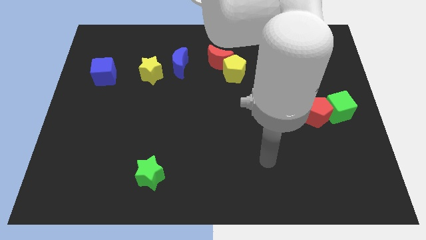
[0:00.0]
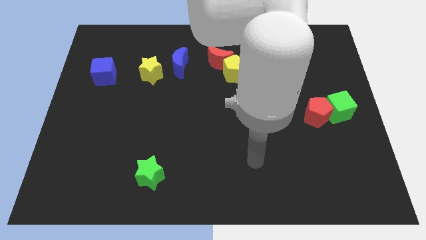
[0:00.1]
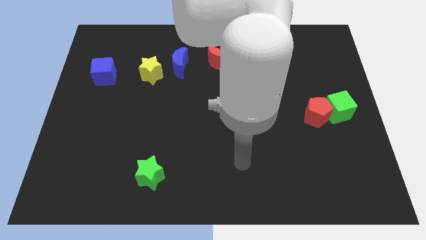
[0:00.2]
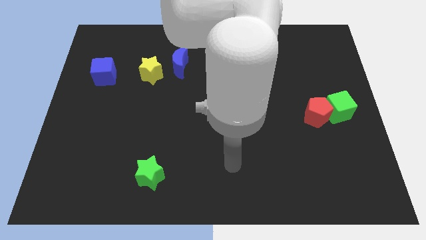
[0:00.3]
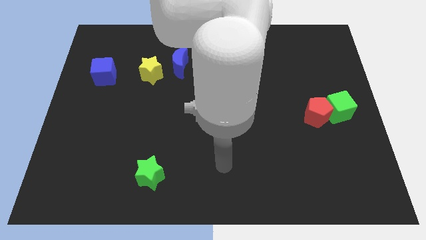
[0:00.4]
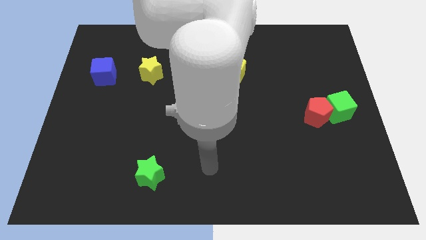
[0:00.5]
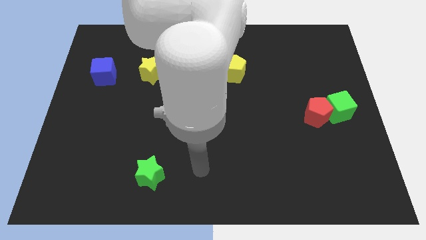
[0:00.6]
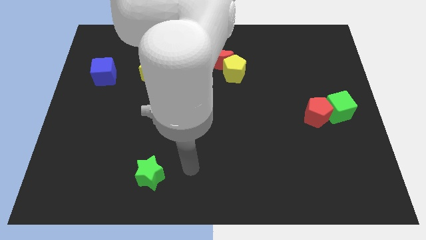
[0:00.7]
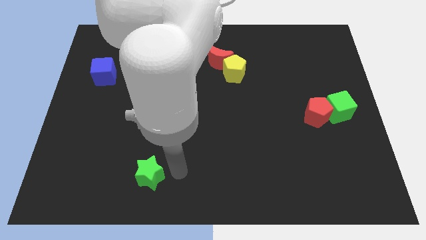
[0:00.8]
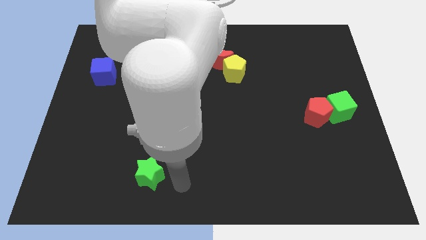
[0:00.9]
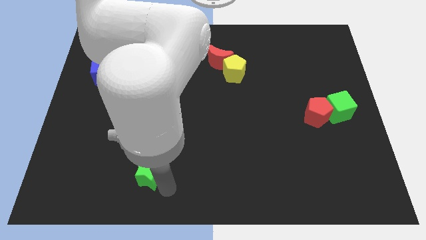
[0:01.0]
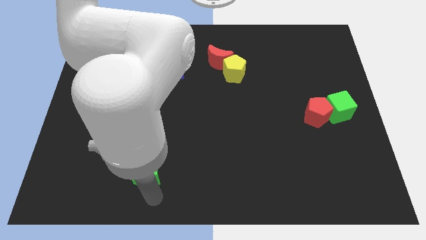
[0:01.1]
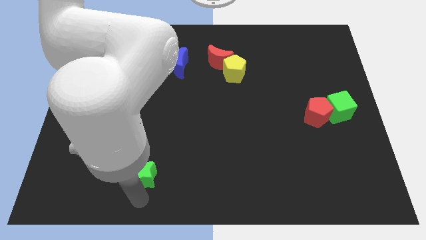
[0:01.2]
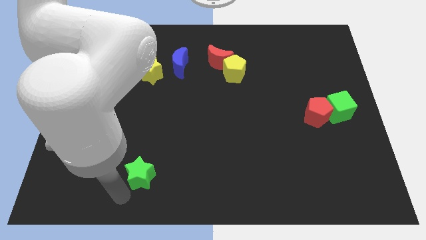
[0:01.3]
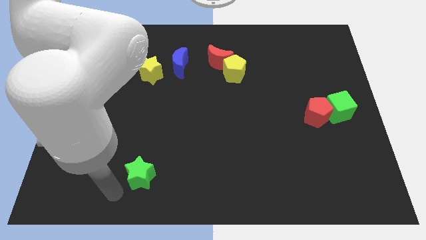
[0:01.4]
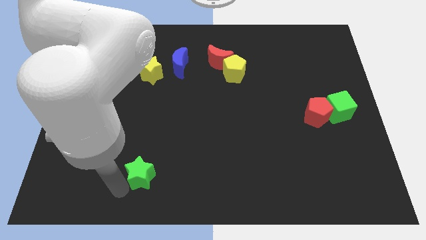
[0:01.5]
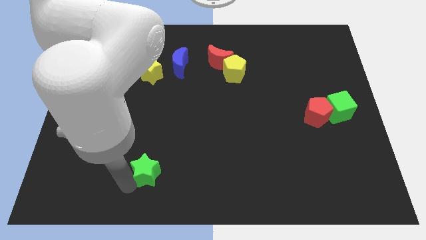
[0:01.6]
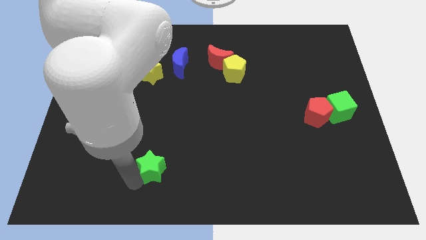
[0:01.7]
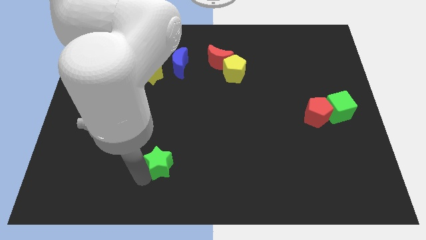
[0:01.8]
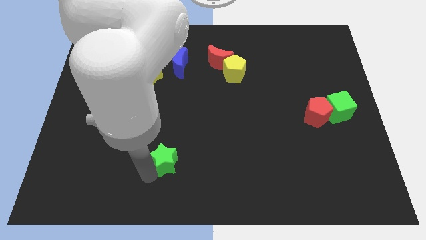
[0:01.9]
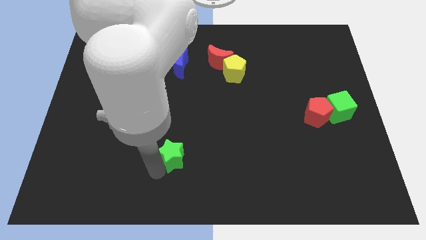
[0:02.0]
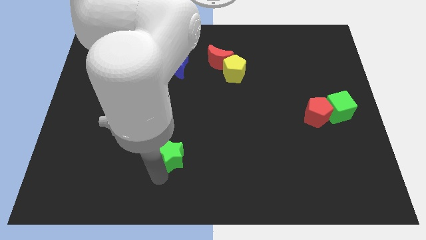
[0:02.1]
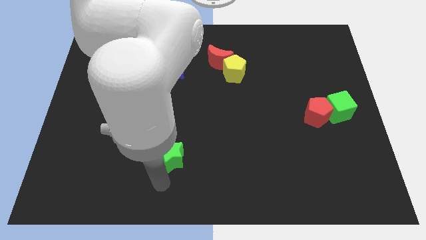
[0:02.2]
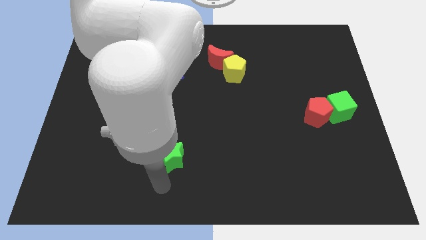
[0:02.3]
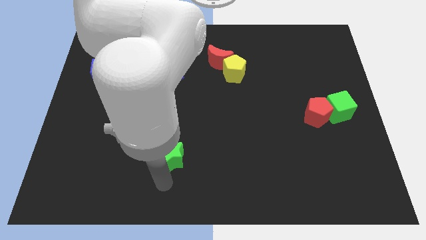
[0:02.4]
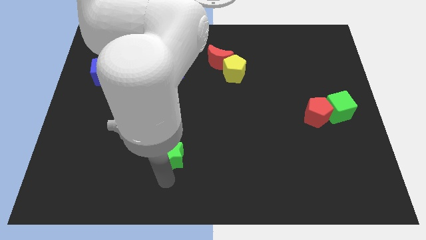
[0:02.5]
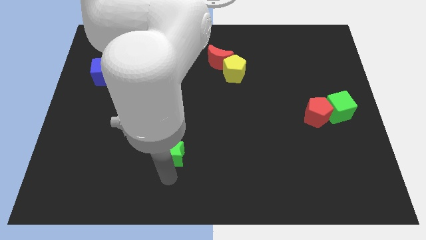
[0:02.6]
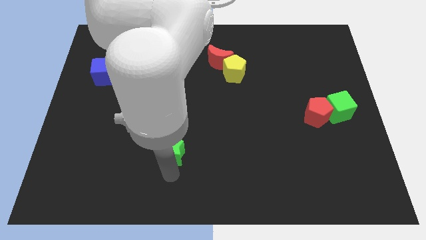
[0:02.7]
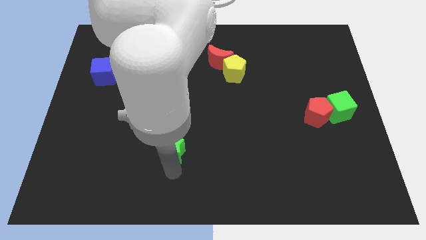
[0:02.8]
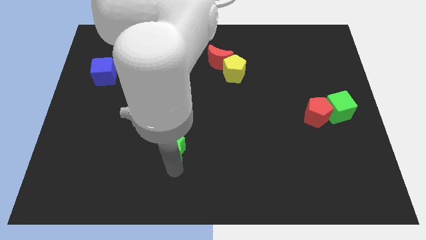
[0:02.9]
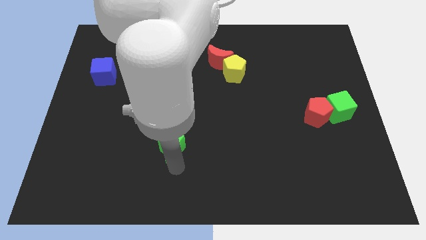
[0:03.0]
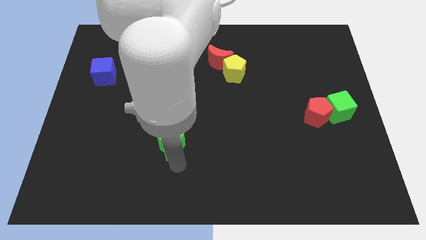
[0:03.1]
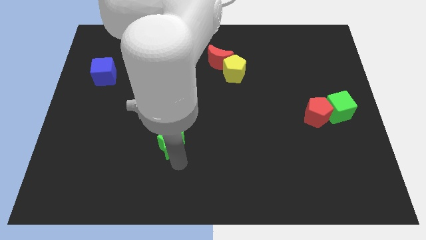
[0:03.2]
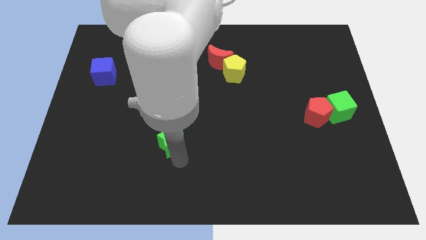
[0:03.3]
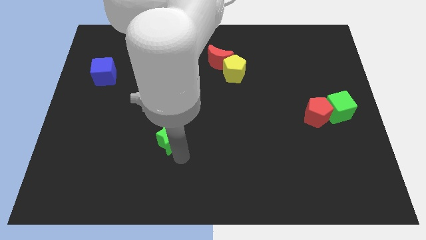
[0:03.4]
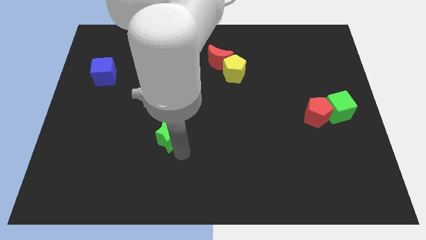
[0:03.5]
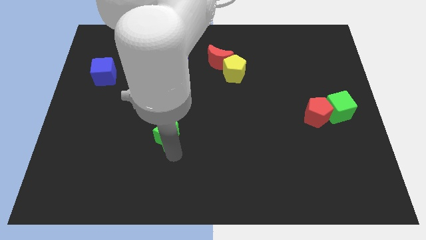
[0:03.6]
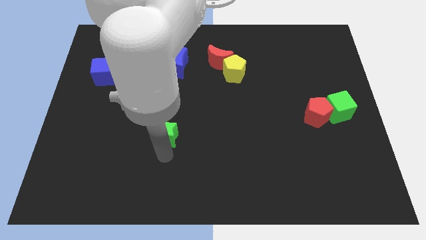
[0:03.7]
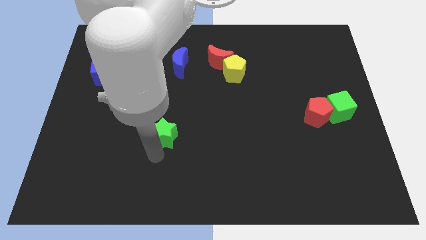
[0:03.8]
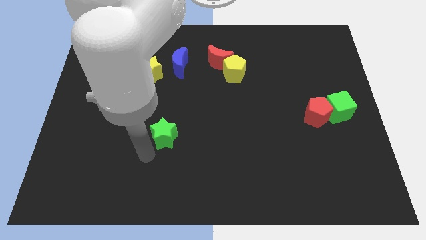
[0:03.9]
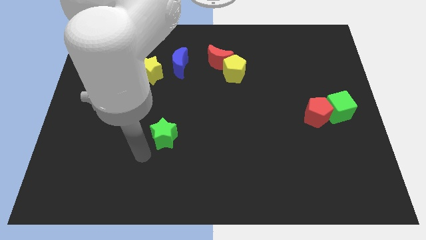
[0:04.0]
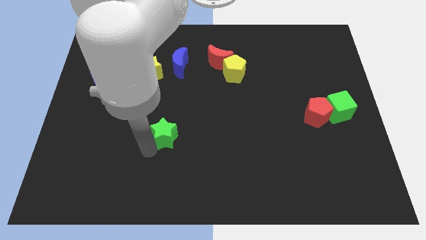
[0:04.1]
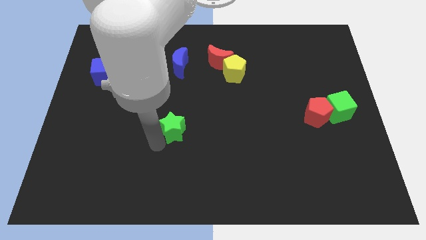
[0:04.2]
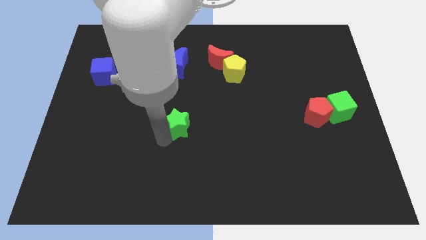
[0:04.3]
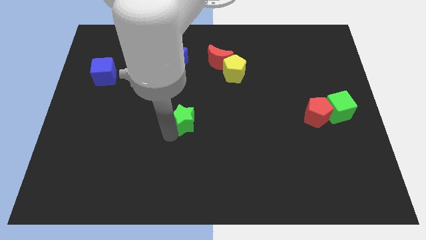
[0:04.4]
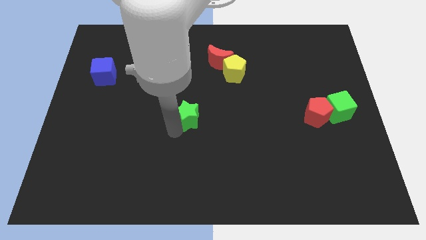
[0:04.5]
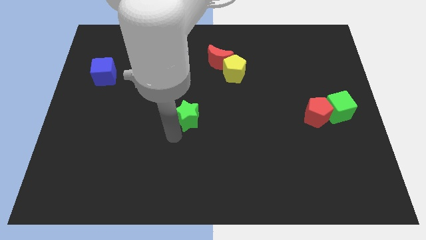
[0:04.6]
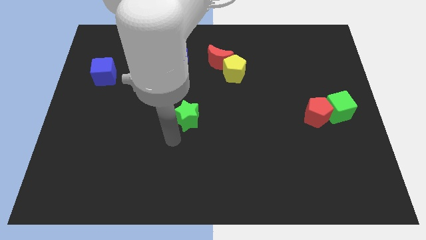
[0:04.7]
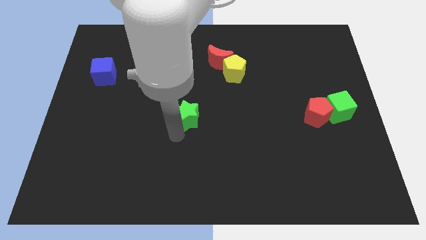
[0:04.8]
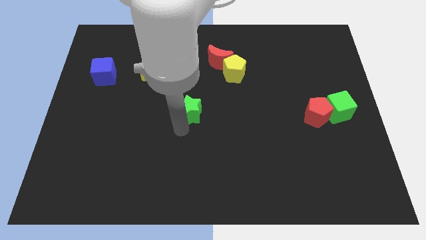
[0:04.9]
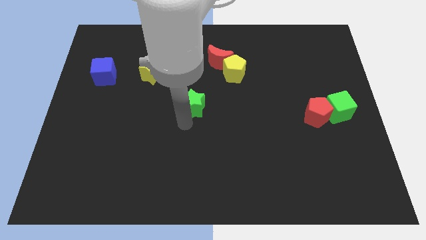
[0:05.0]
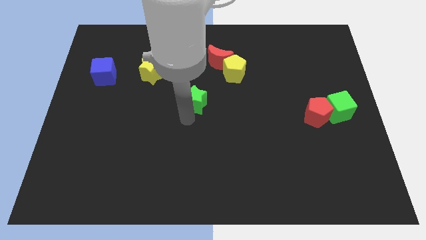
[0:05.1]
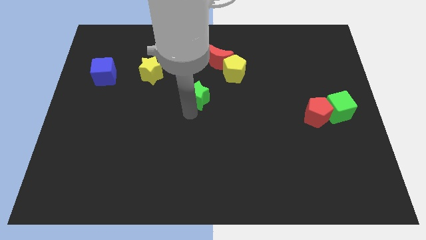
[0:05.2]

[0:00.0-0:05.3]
put the green star to the bottom left side of the yellow pentagon

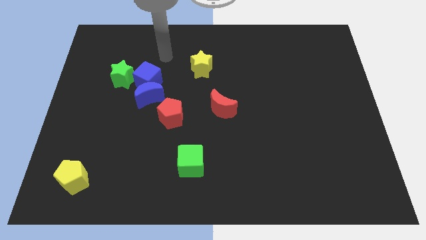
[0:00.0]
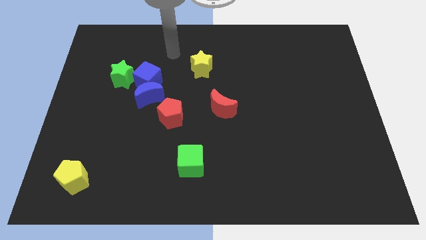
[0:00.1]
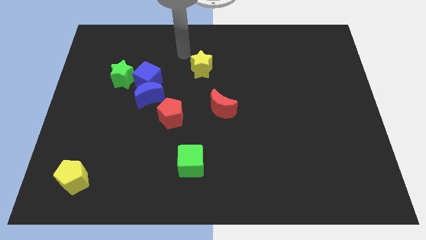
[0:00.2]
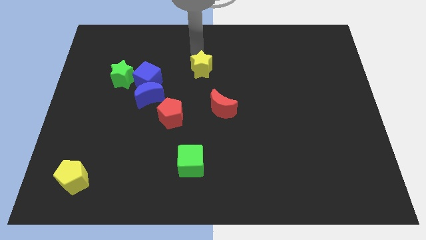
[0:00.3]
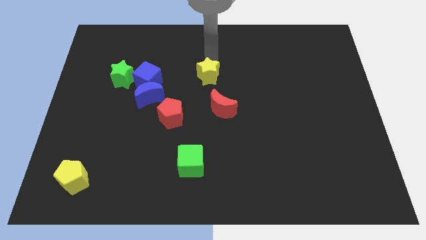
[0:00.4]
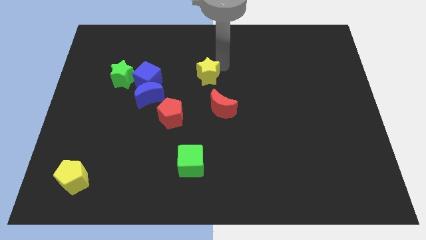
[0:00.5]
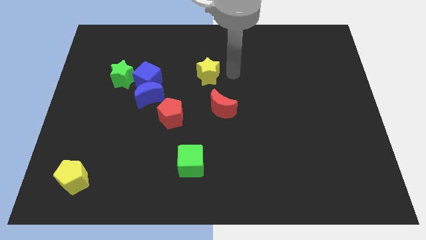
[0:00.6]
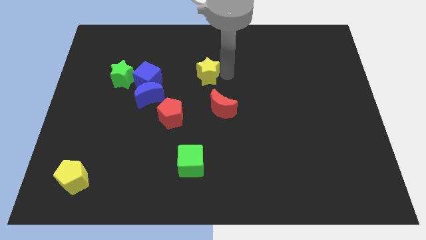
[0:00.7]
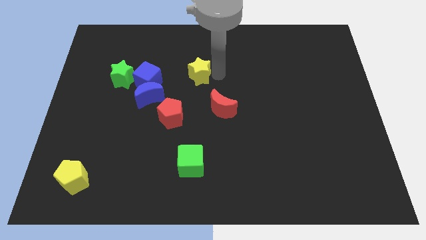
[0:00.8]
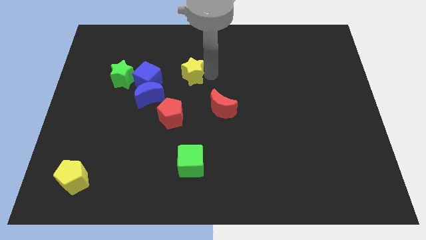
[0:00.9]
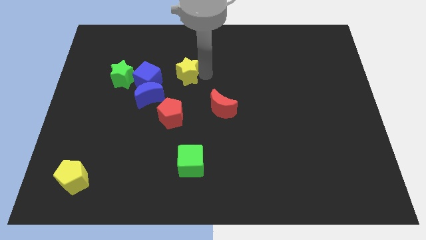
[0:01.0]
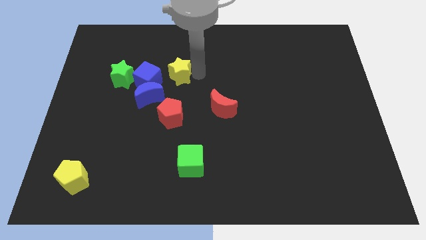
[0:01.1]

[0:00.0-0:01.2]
put the yellow star right of the green star
